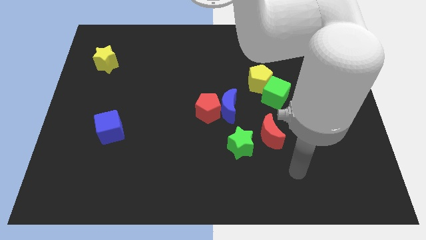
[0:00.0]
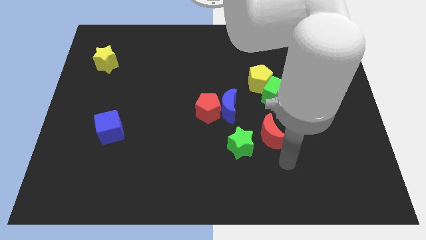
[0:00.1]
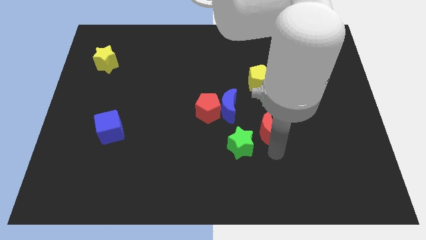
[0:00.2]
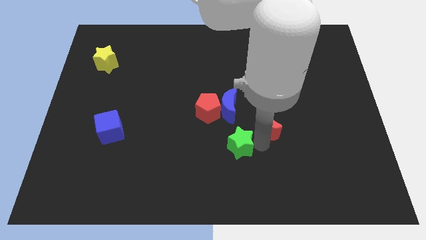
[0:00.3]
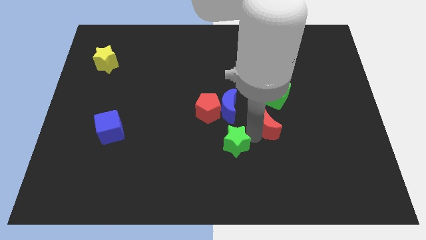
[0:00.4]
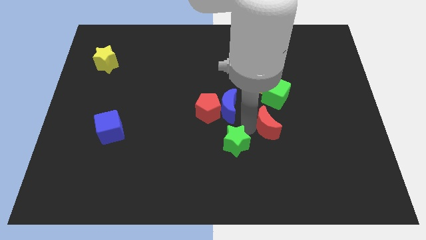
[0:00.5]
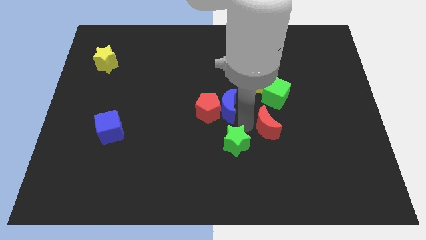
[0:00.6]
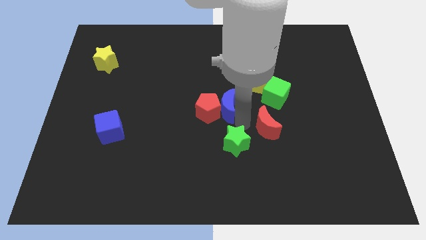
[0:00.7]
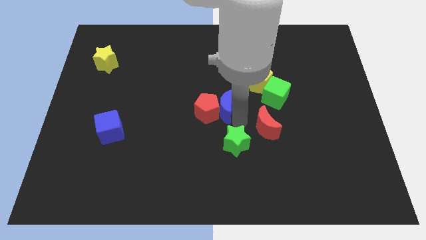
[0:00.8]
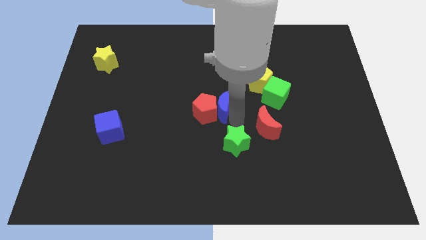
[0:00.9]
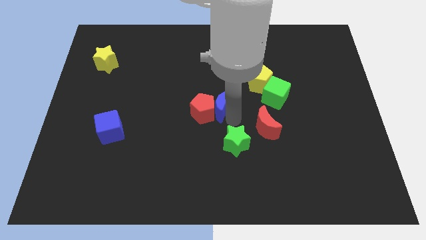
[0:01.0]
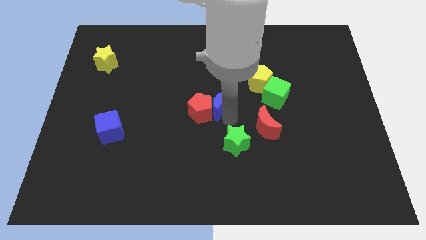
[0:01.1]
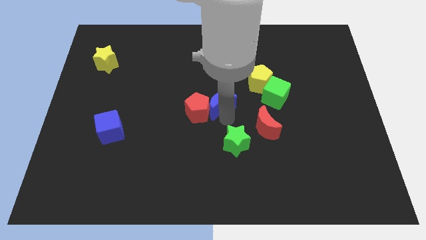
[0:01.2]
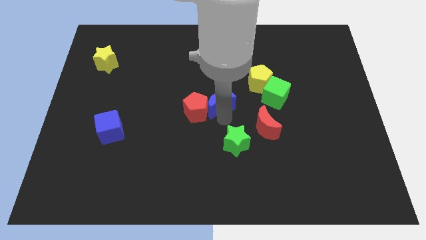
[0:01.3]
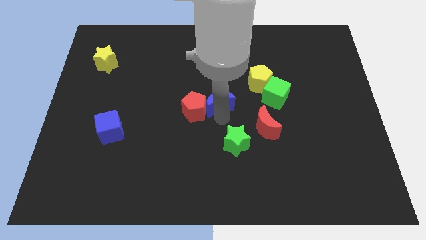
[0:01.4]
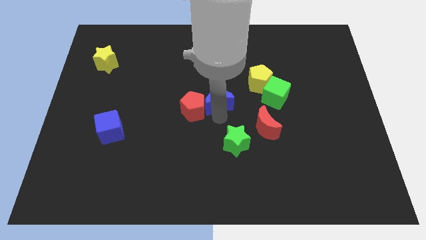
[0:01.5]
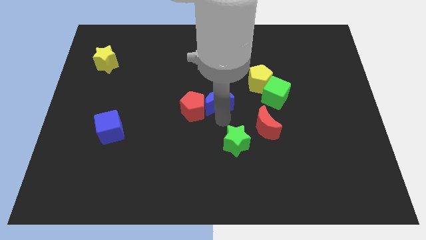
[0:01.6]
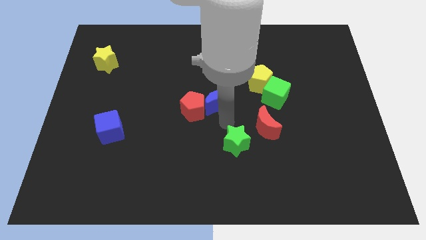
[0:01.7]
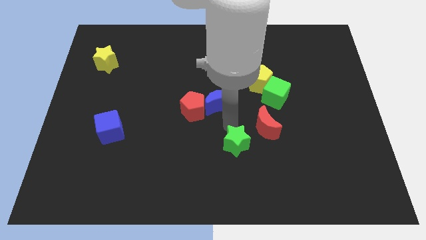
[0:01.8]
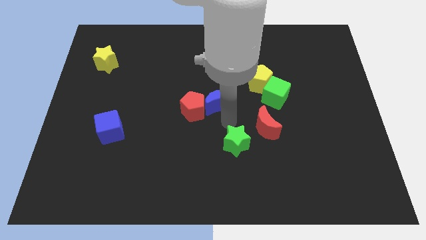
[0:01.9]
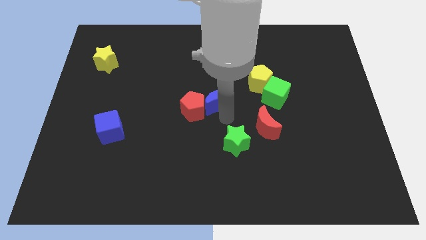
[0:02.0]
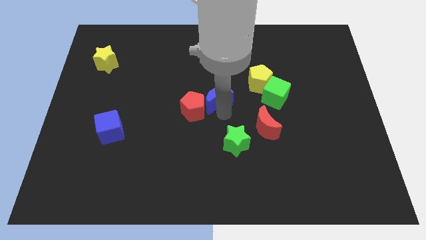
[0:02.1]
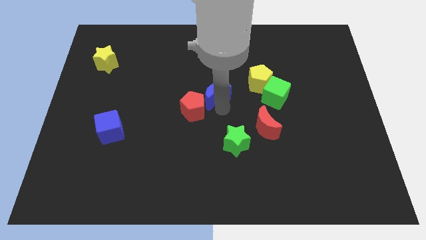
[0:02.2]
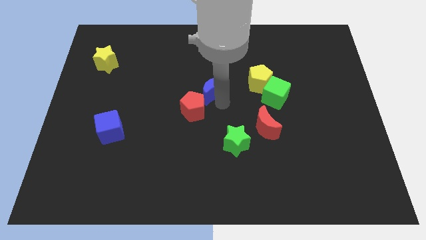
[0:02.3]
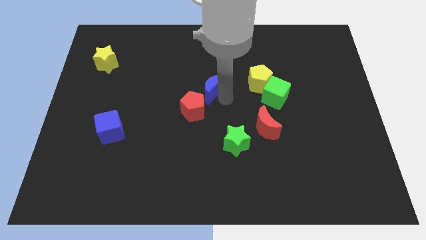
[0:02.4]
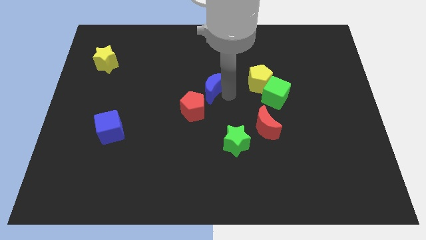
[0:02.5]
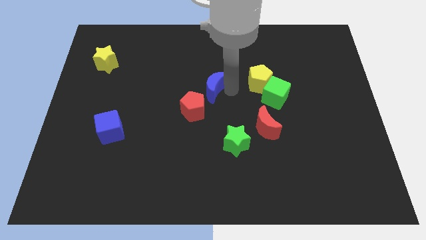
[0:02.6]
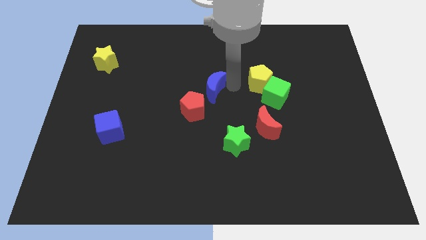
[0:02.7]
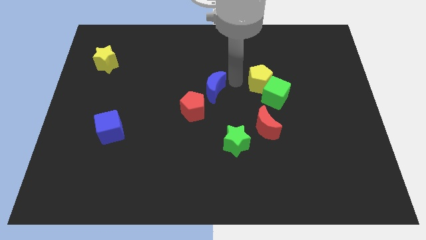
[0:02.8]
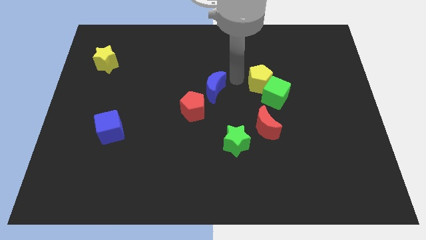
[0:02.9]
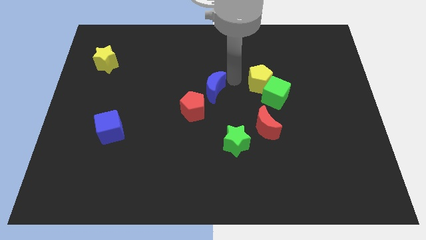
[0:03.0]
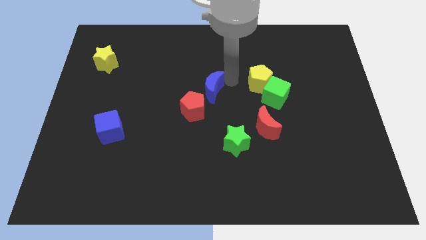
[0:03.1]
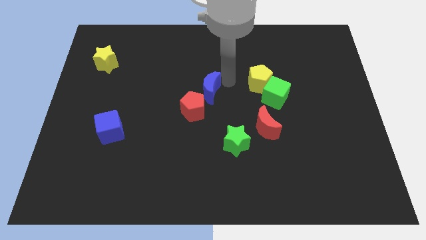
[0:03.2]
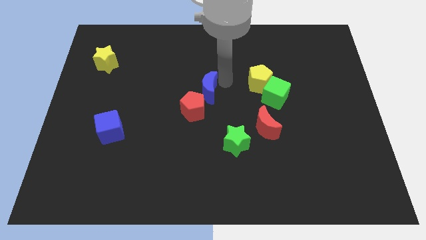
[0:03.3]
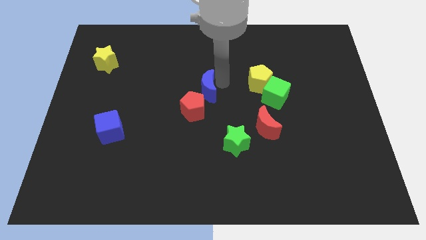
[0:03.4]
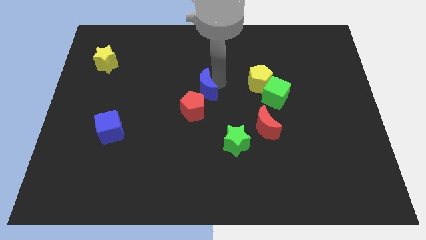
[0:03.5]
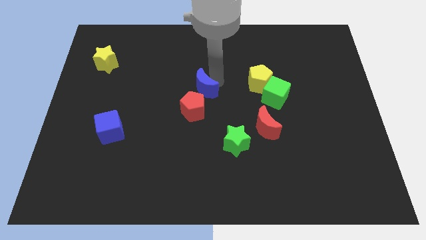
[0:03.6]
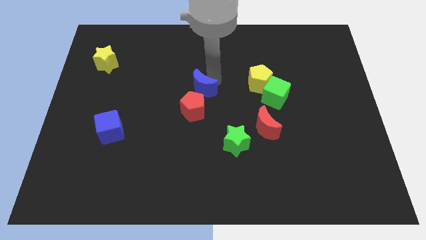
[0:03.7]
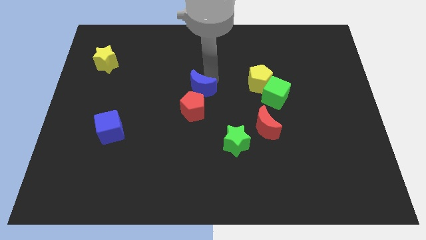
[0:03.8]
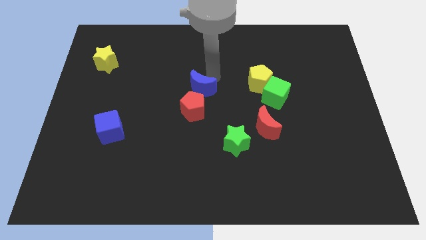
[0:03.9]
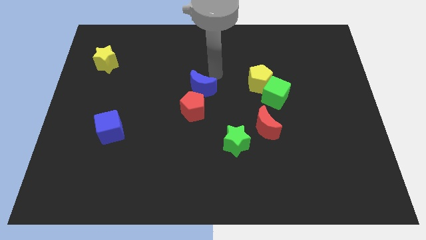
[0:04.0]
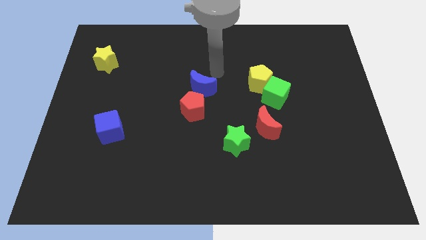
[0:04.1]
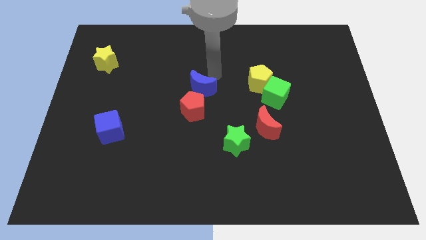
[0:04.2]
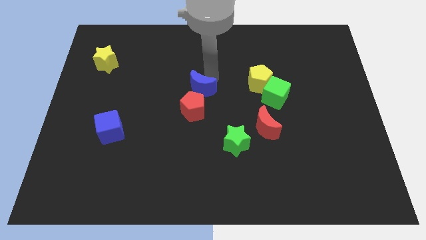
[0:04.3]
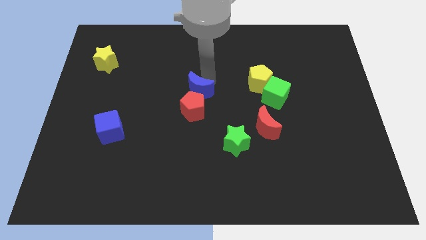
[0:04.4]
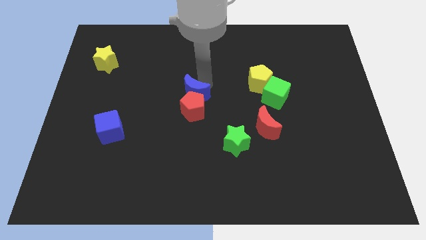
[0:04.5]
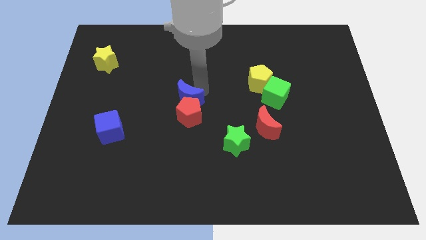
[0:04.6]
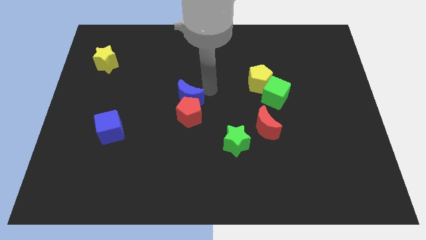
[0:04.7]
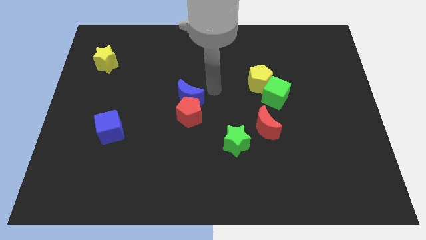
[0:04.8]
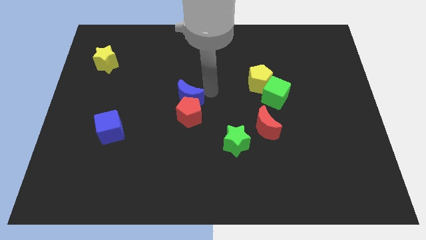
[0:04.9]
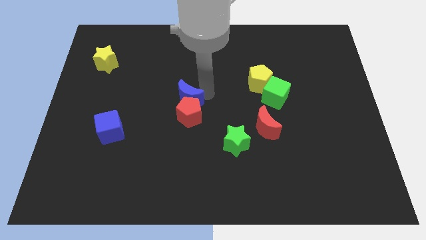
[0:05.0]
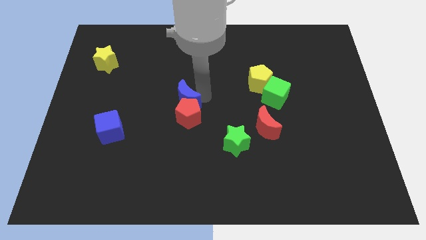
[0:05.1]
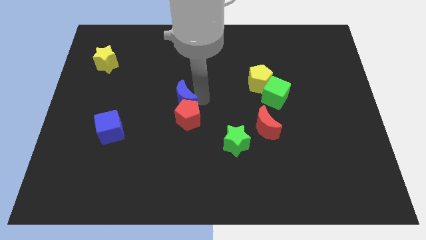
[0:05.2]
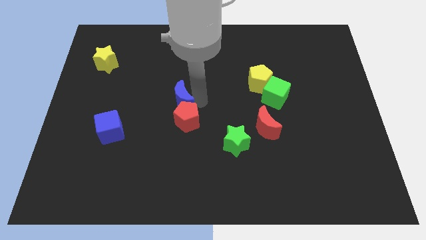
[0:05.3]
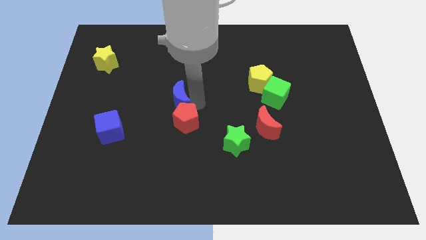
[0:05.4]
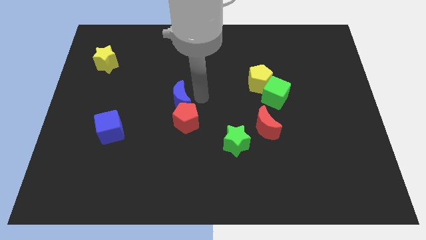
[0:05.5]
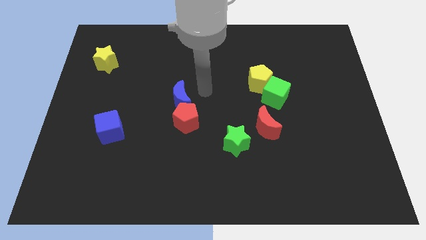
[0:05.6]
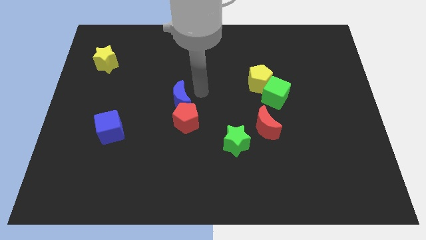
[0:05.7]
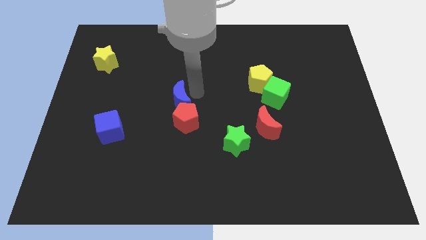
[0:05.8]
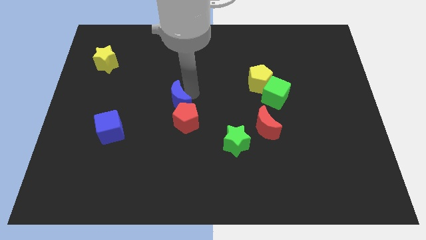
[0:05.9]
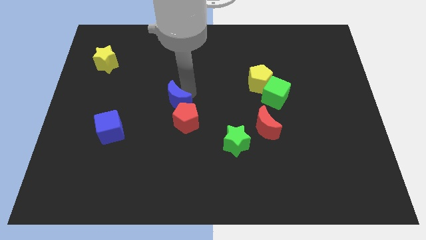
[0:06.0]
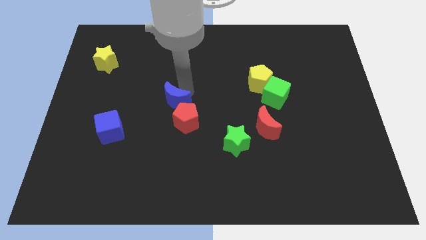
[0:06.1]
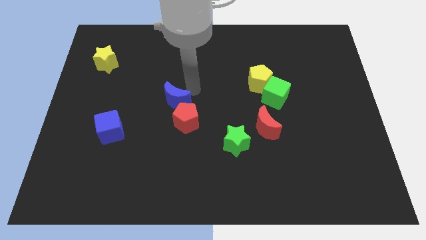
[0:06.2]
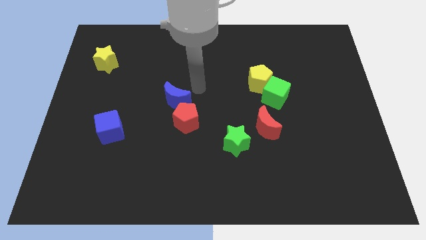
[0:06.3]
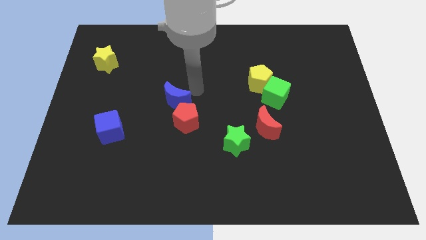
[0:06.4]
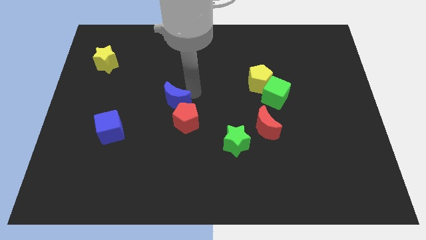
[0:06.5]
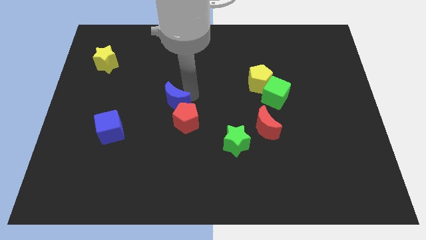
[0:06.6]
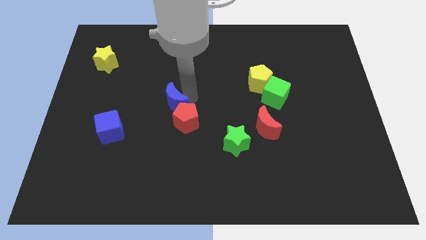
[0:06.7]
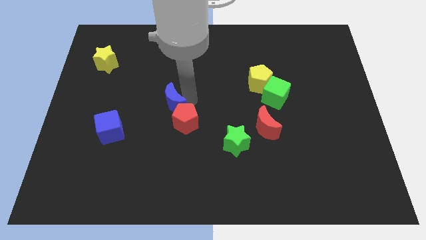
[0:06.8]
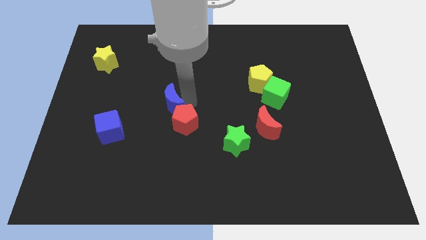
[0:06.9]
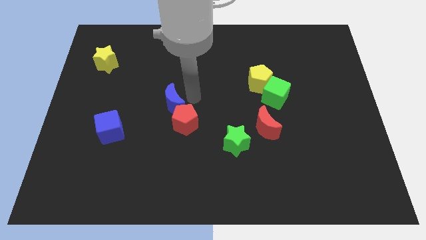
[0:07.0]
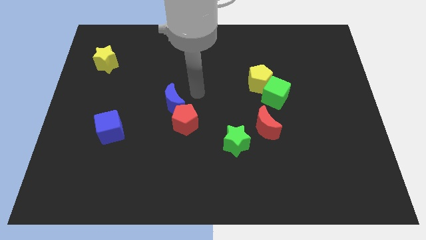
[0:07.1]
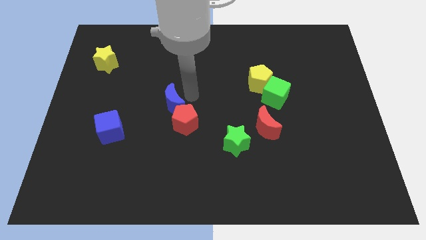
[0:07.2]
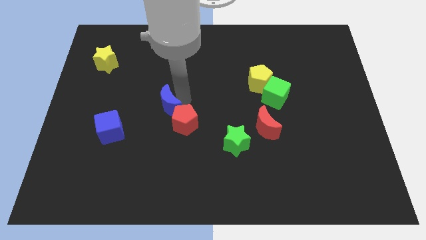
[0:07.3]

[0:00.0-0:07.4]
put the blue moon to the left side of the red pentagon
